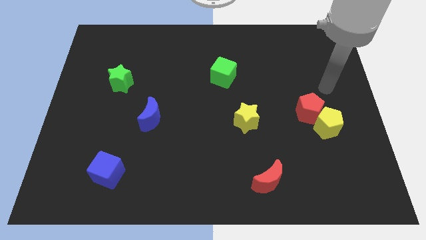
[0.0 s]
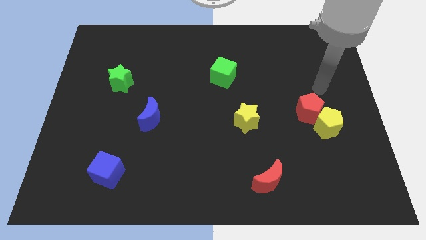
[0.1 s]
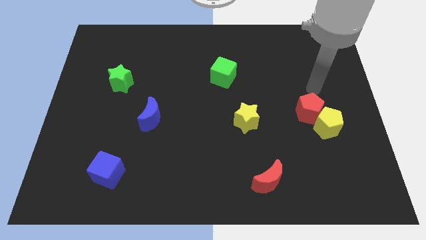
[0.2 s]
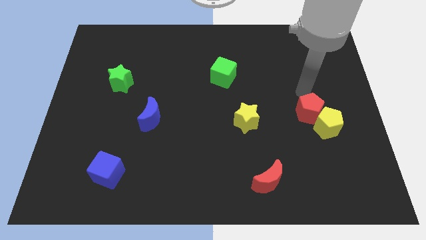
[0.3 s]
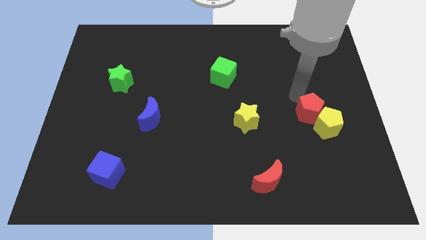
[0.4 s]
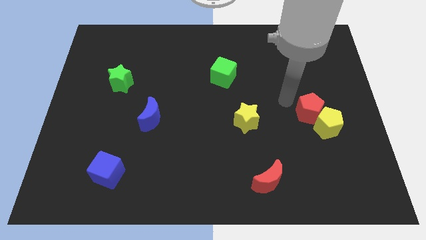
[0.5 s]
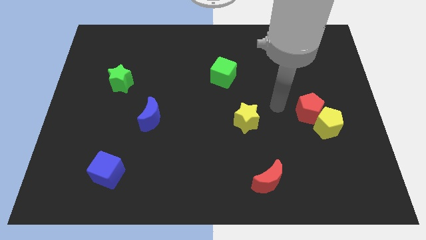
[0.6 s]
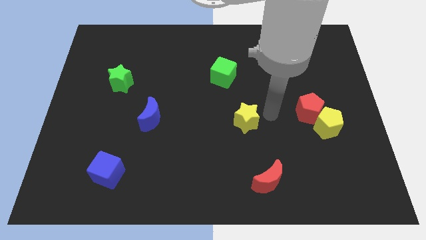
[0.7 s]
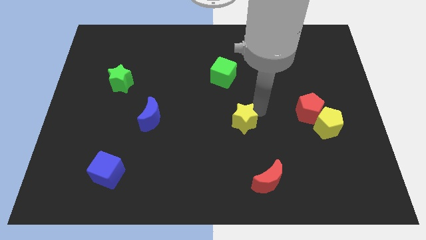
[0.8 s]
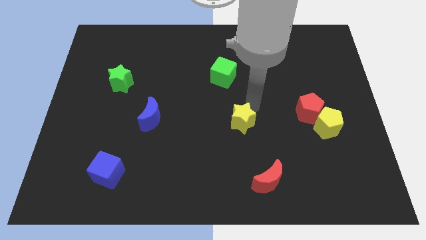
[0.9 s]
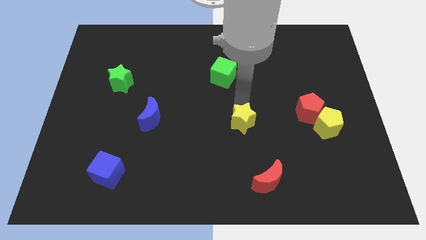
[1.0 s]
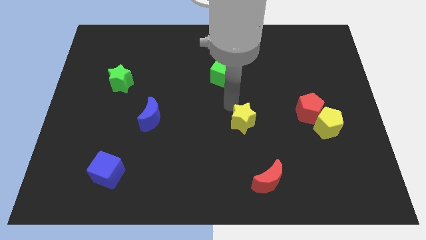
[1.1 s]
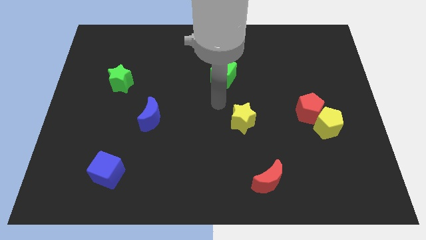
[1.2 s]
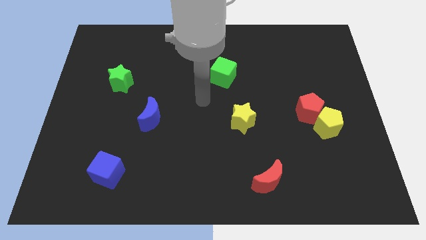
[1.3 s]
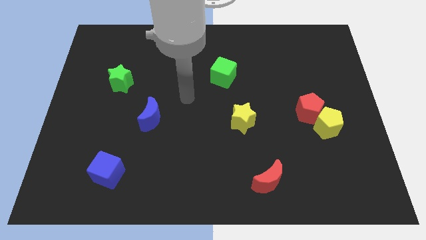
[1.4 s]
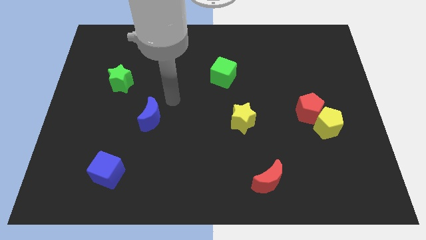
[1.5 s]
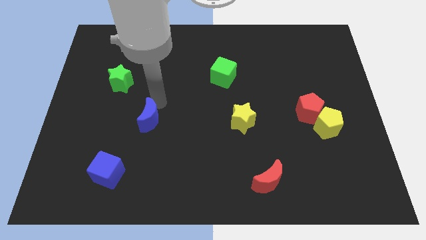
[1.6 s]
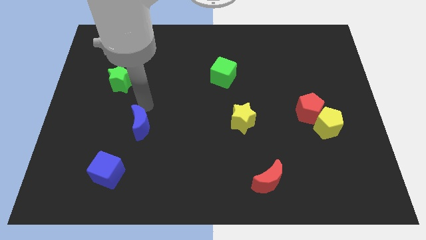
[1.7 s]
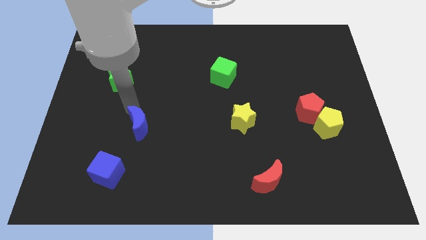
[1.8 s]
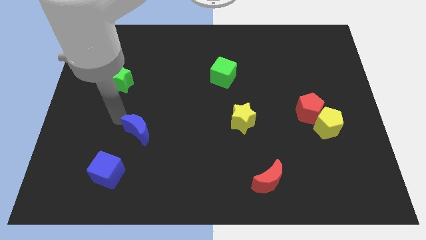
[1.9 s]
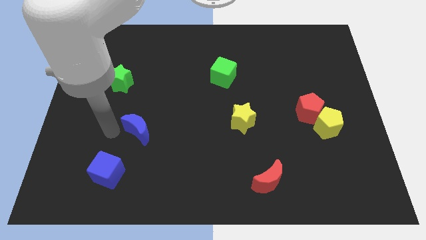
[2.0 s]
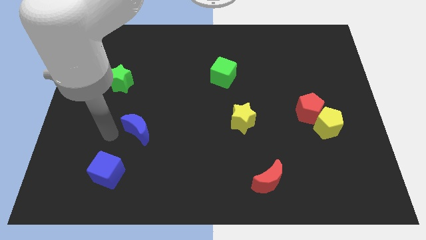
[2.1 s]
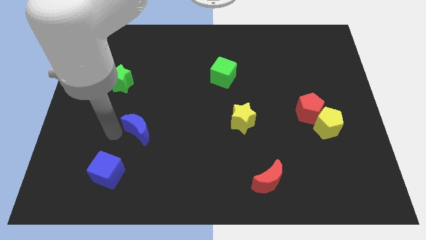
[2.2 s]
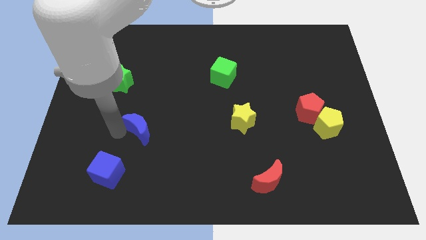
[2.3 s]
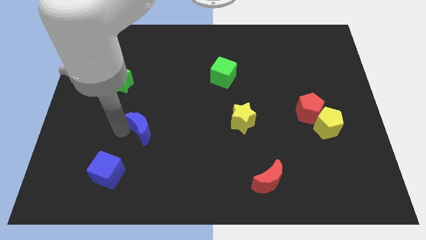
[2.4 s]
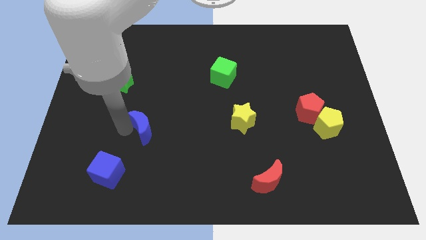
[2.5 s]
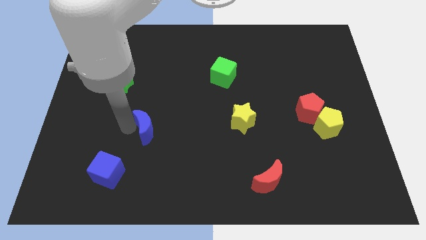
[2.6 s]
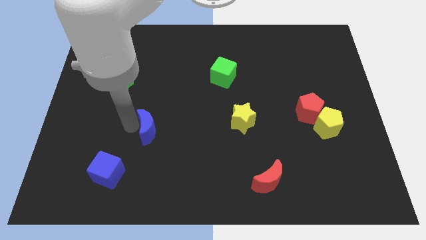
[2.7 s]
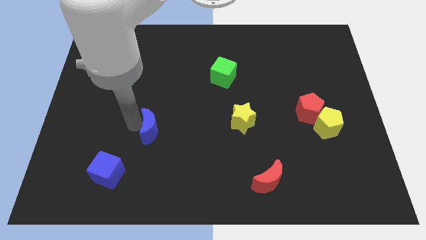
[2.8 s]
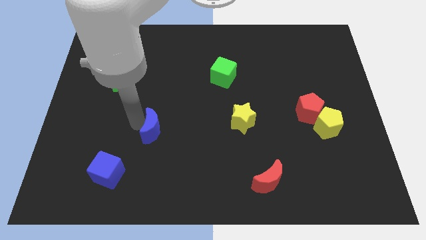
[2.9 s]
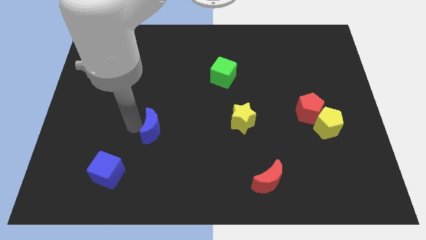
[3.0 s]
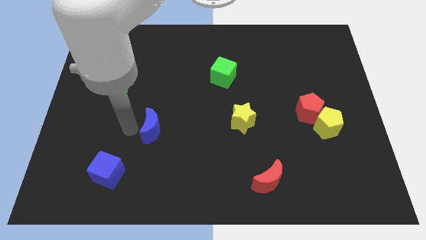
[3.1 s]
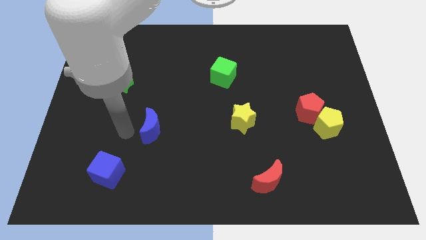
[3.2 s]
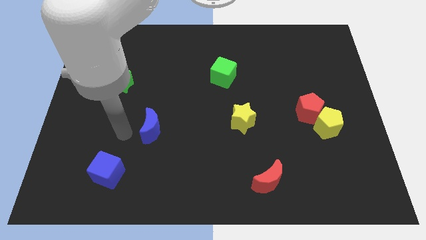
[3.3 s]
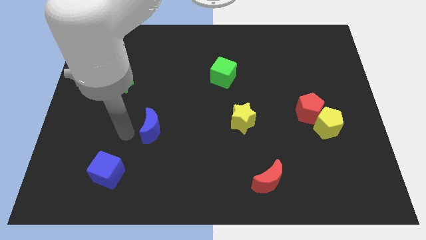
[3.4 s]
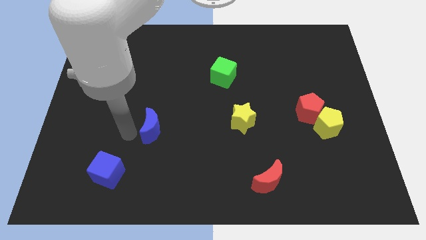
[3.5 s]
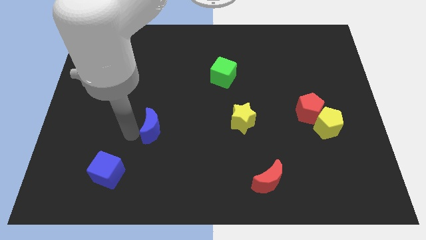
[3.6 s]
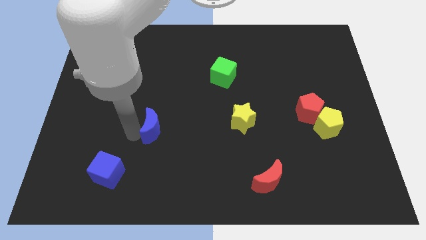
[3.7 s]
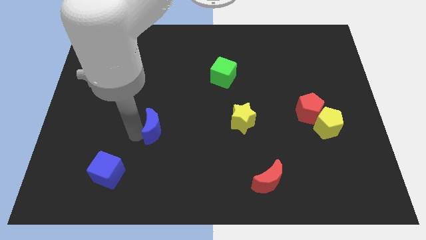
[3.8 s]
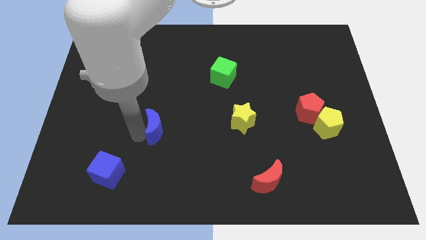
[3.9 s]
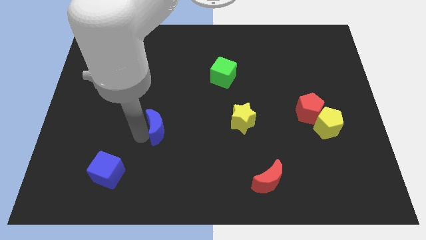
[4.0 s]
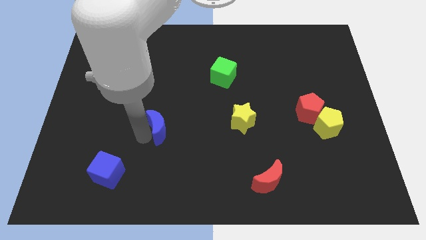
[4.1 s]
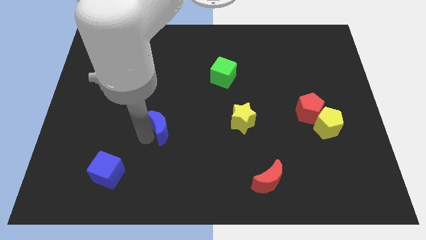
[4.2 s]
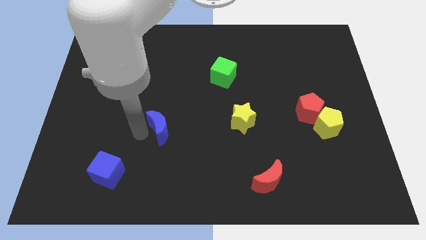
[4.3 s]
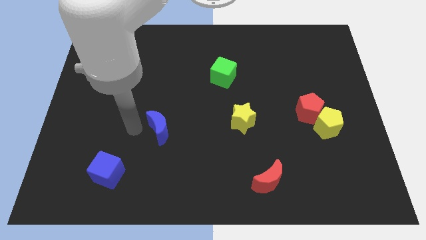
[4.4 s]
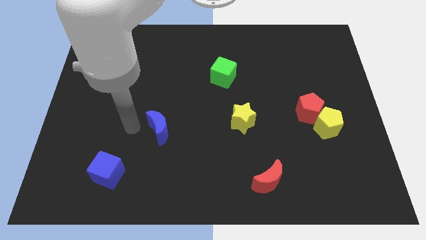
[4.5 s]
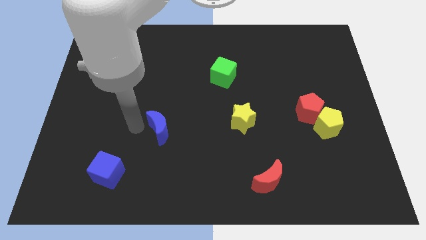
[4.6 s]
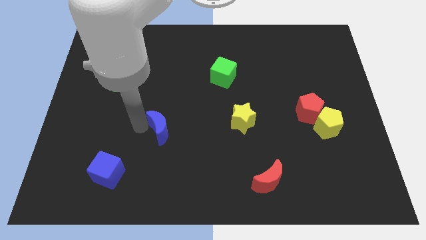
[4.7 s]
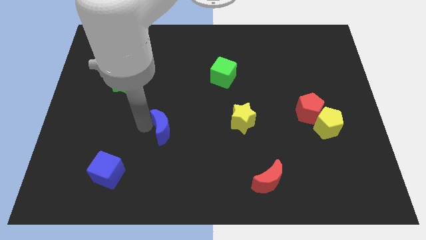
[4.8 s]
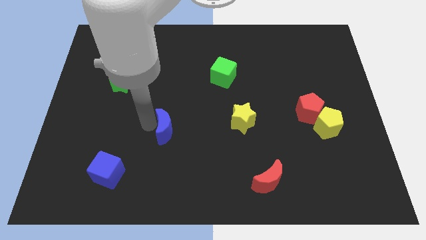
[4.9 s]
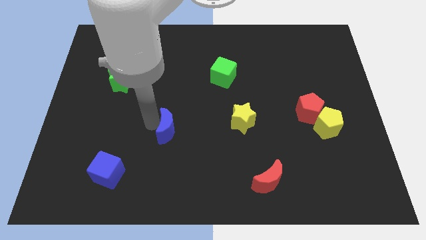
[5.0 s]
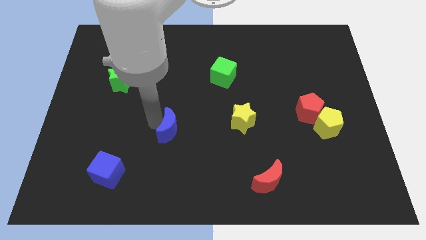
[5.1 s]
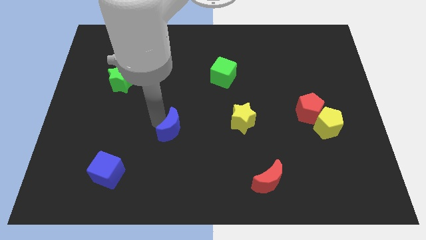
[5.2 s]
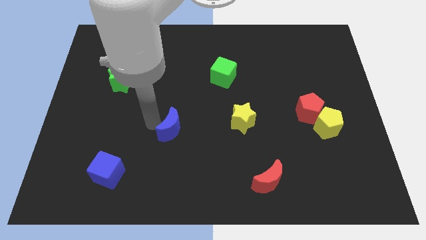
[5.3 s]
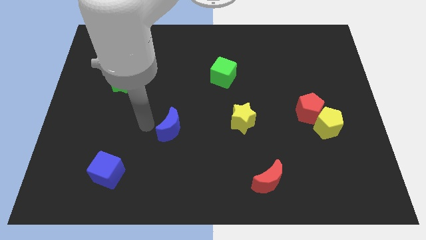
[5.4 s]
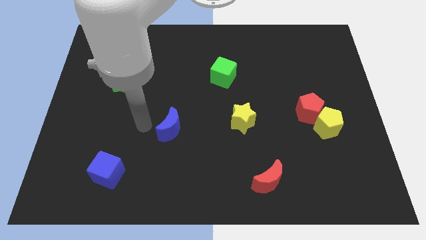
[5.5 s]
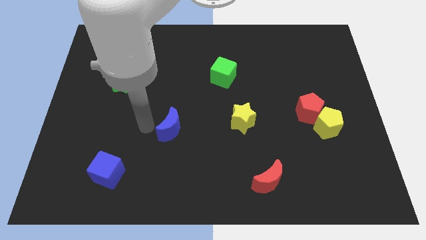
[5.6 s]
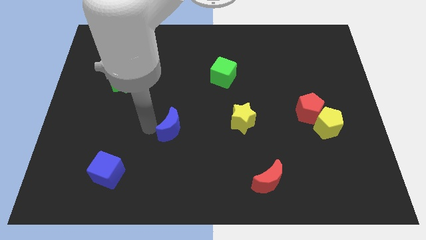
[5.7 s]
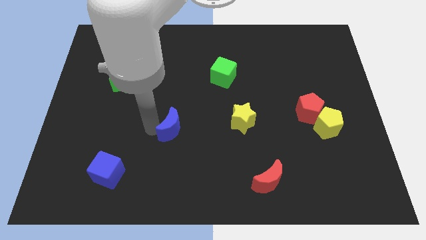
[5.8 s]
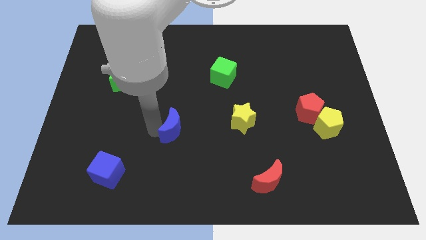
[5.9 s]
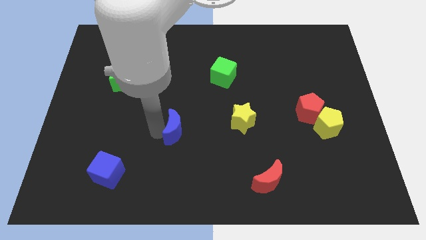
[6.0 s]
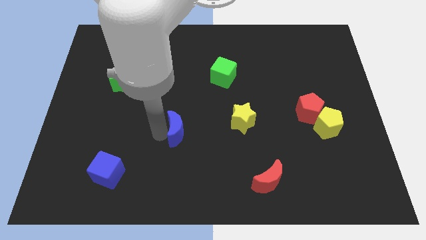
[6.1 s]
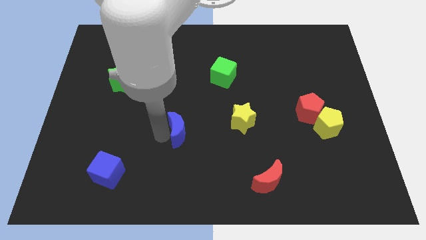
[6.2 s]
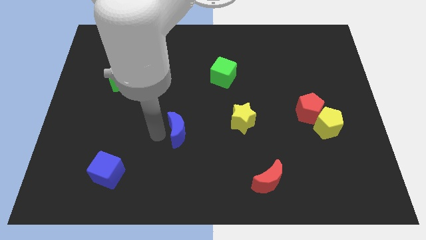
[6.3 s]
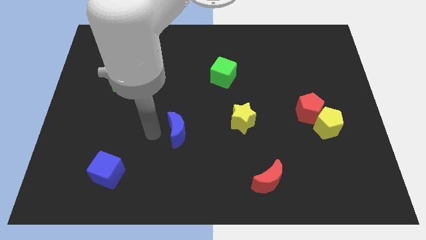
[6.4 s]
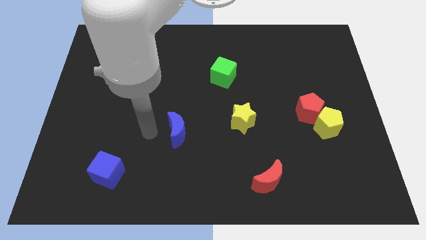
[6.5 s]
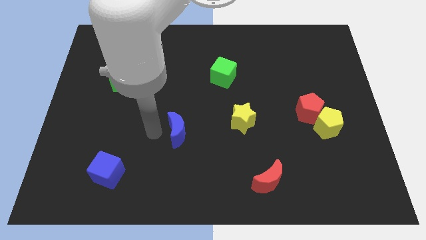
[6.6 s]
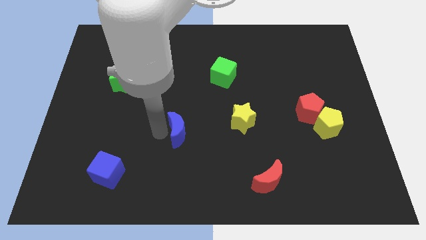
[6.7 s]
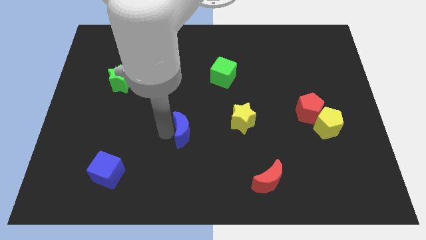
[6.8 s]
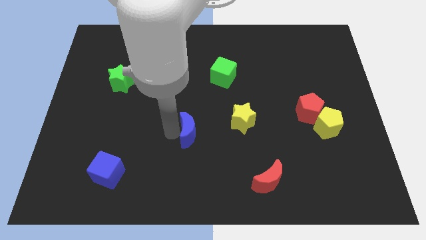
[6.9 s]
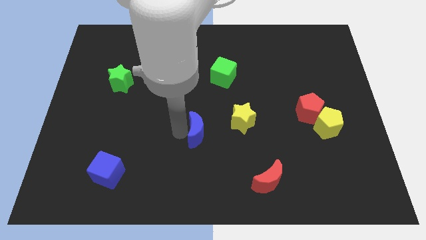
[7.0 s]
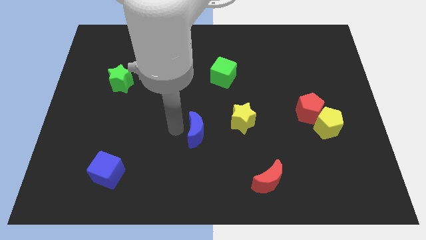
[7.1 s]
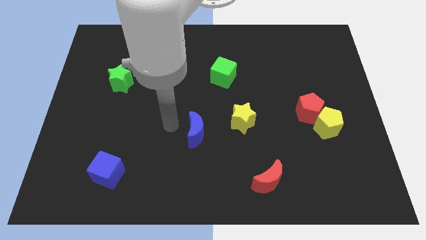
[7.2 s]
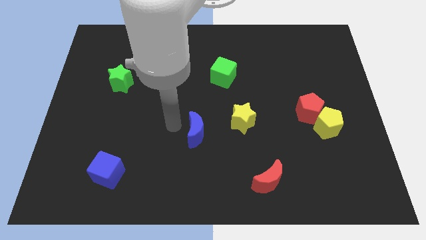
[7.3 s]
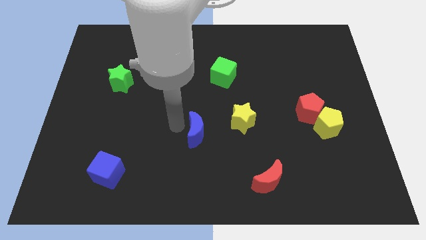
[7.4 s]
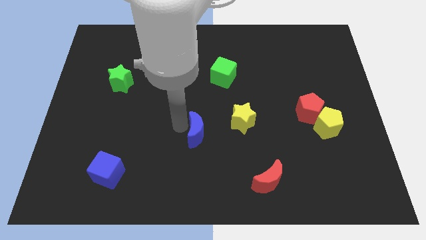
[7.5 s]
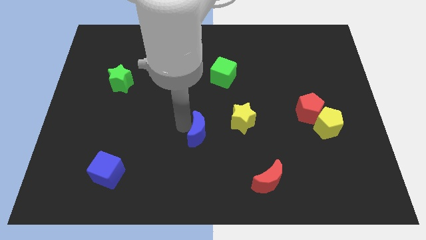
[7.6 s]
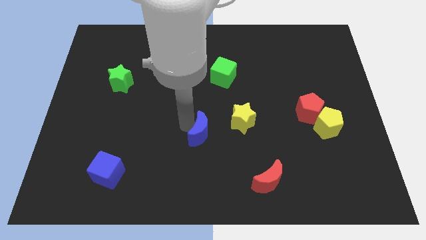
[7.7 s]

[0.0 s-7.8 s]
put the blue moon to the bottom left of the yellow star
